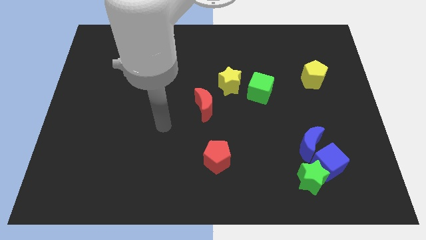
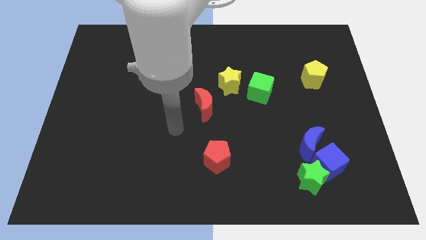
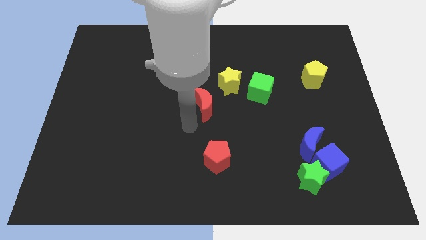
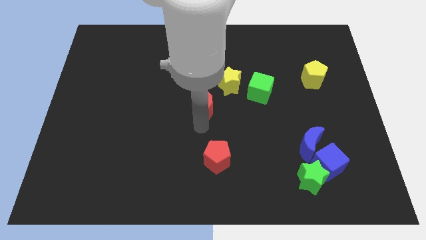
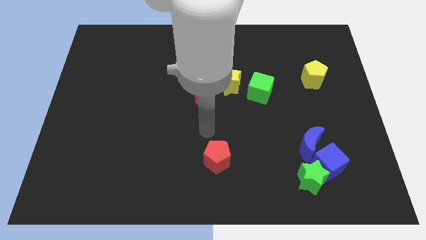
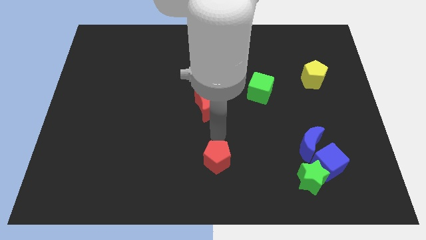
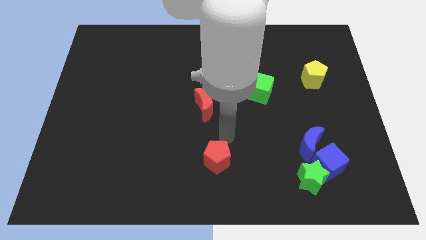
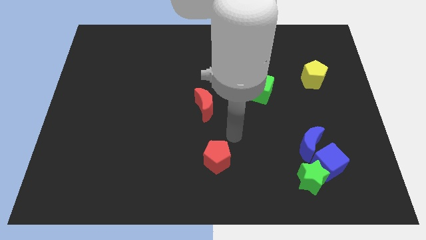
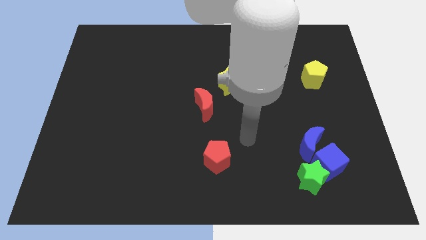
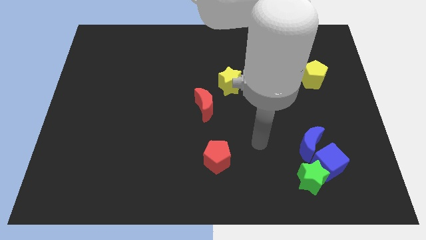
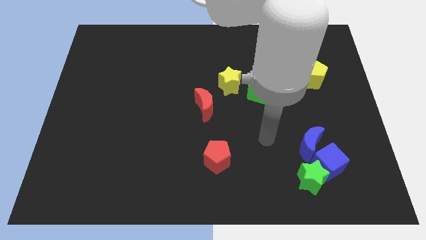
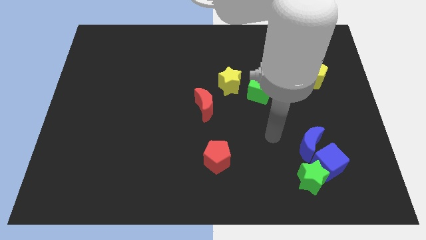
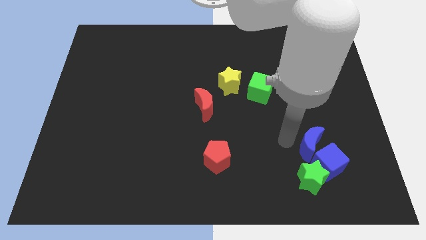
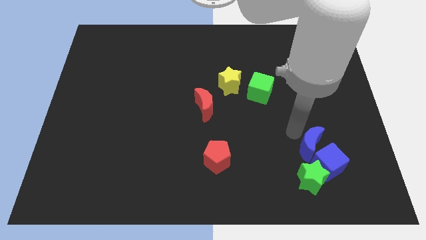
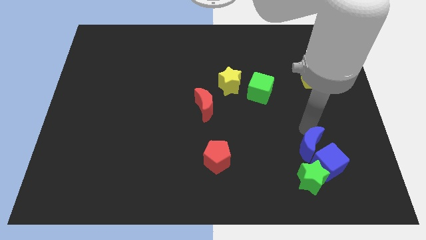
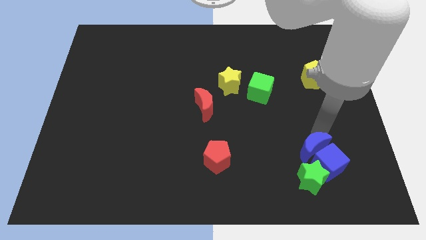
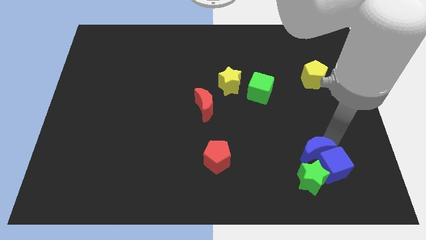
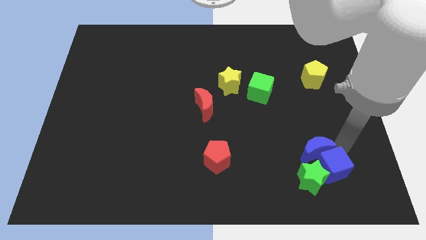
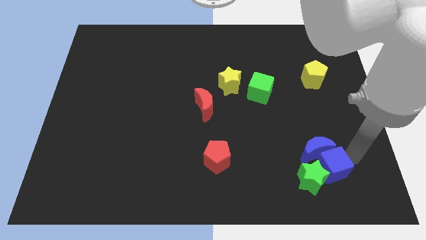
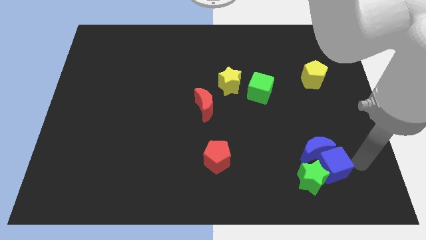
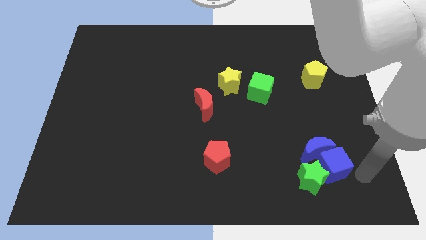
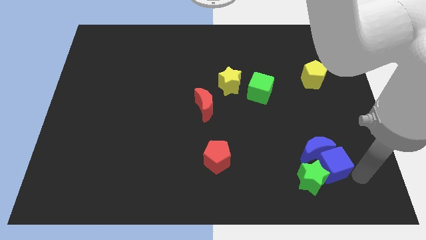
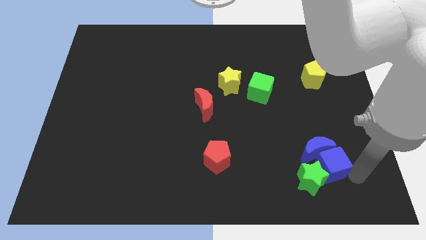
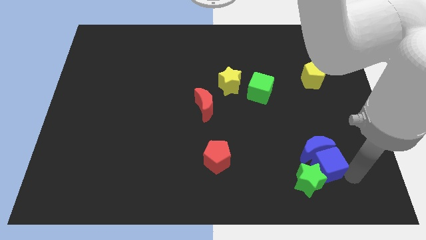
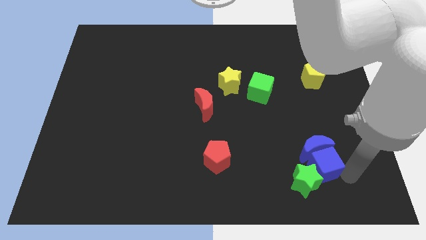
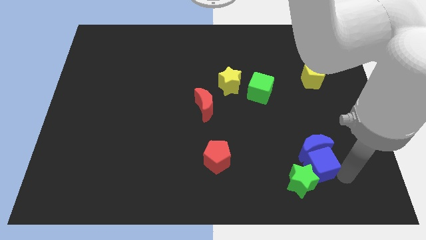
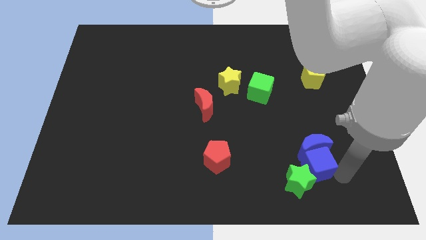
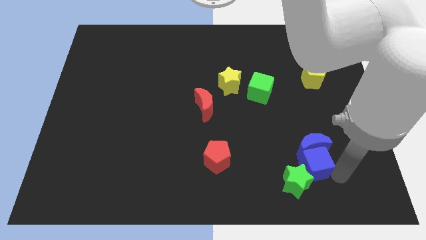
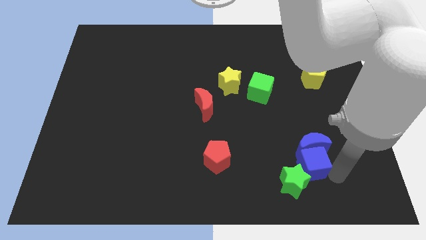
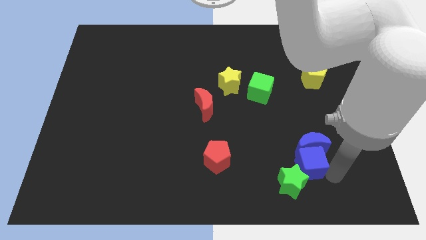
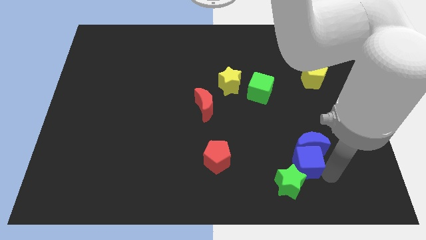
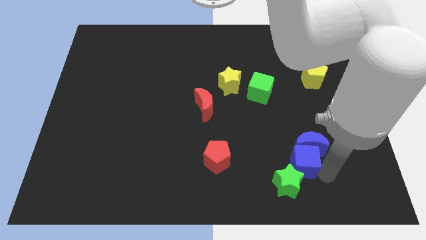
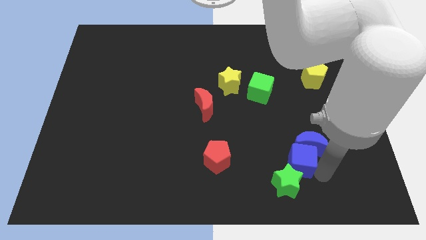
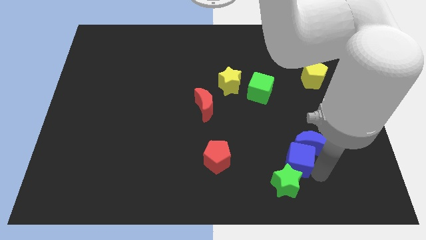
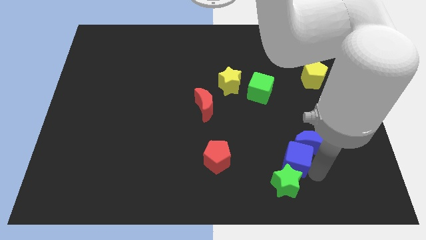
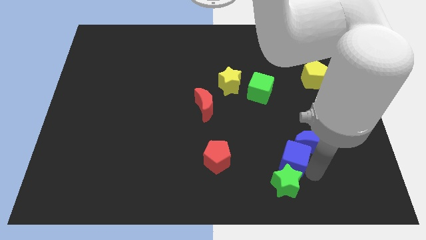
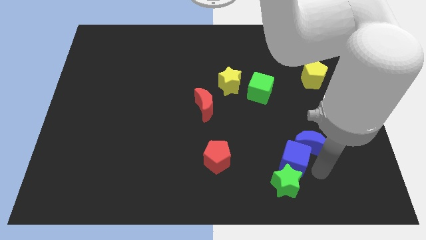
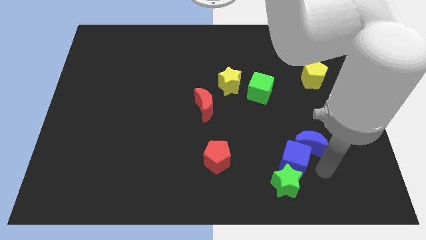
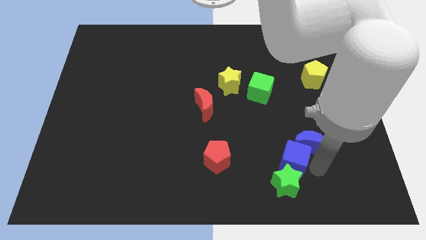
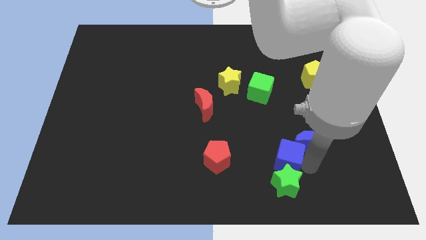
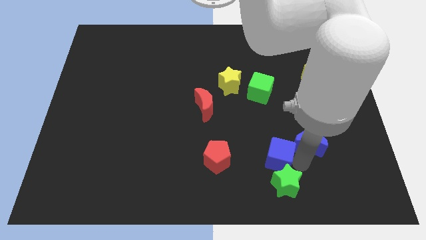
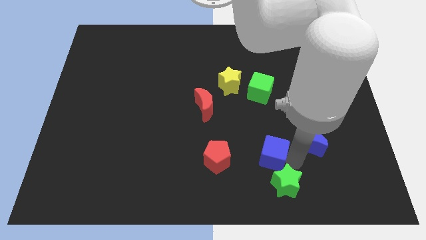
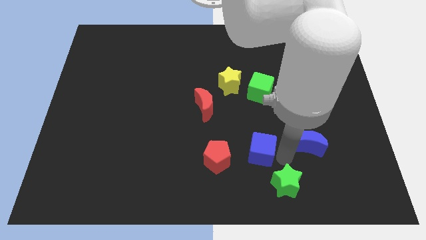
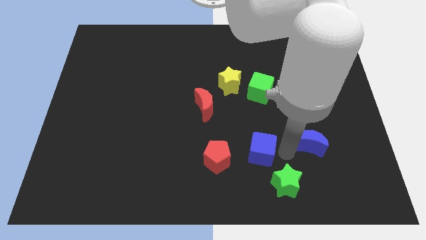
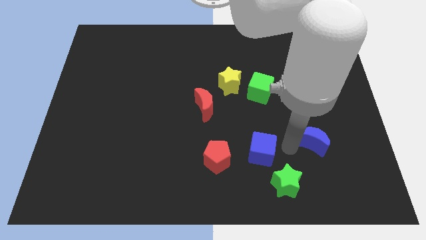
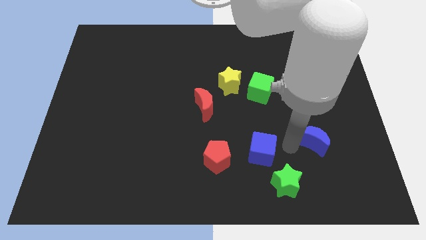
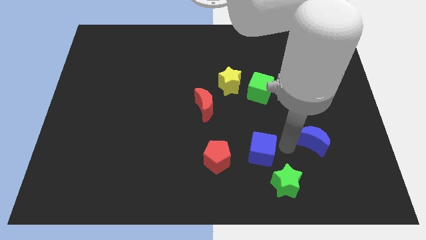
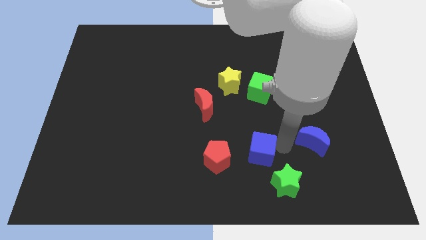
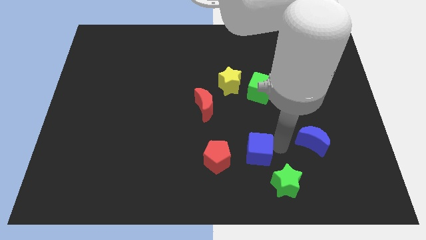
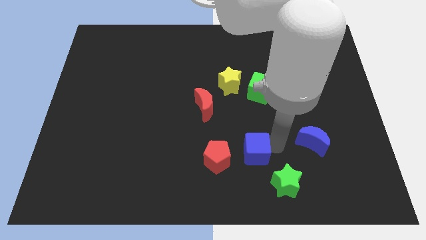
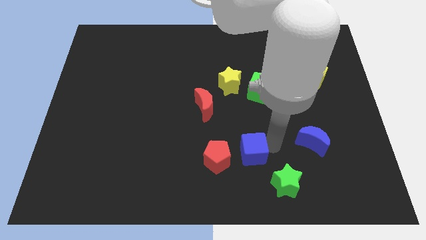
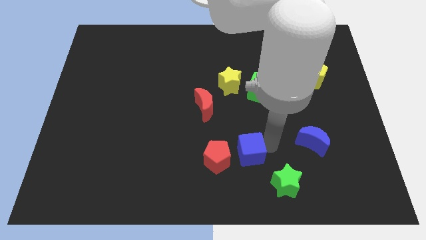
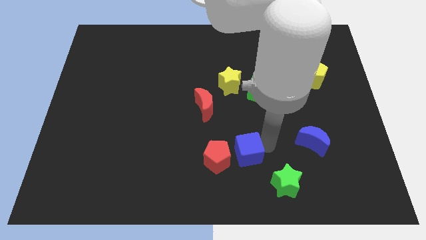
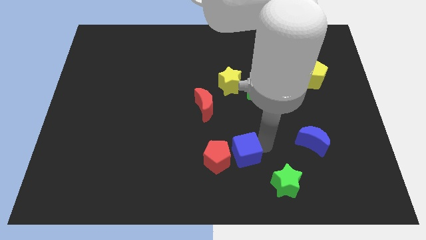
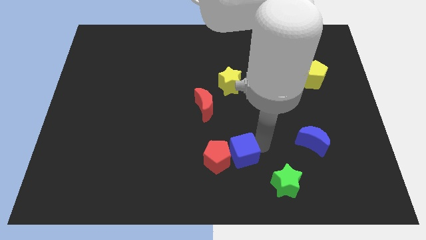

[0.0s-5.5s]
move the blue cube towards the red pentagon

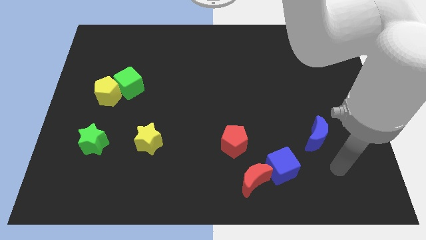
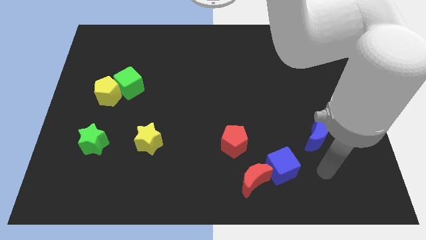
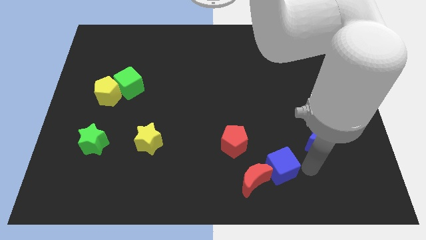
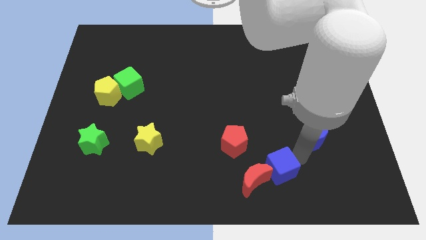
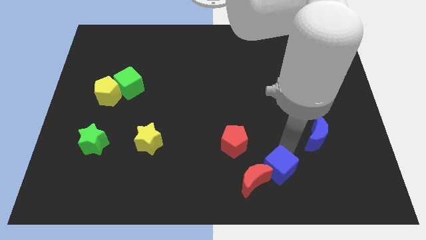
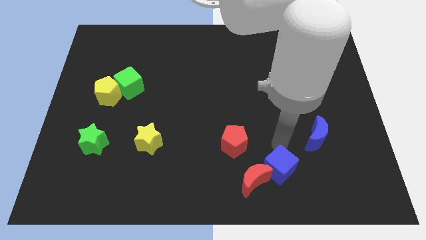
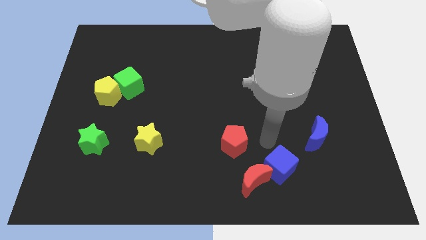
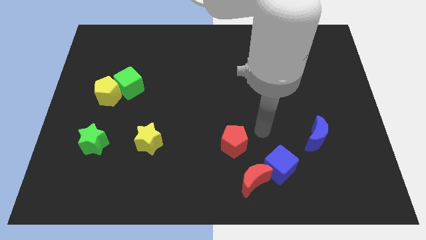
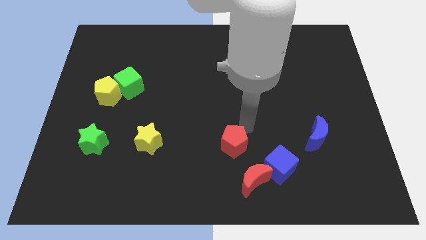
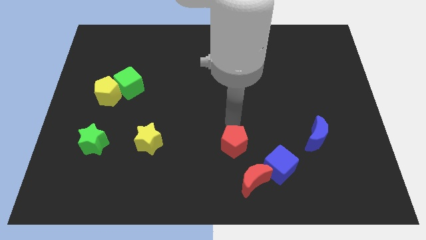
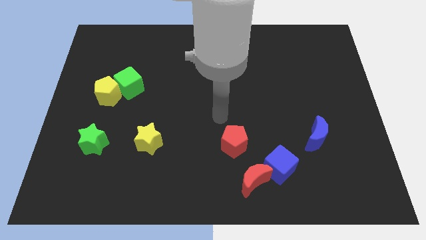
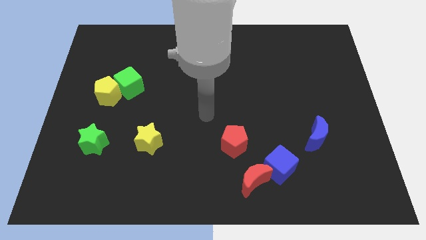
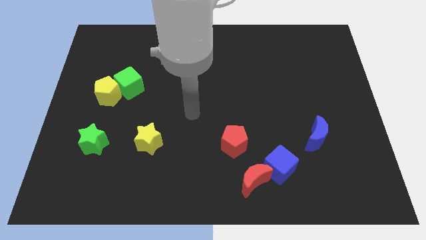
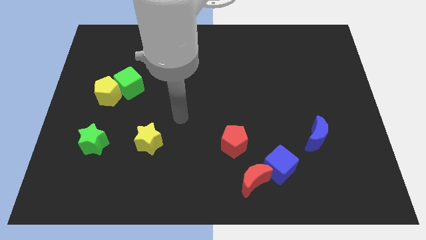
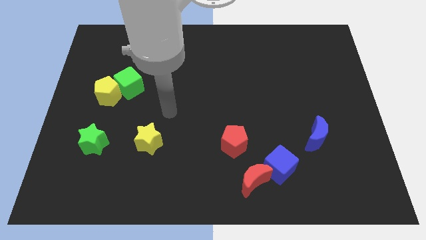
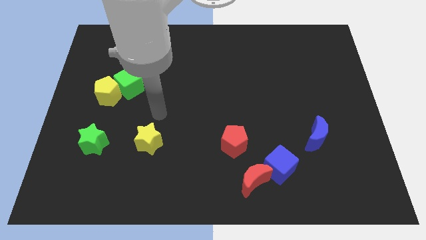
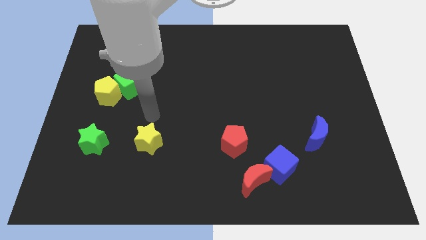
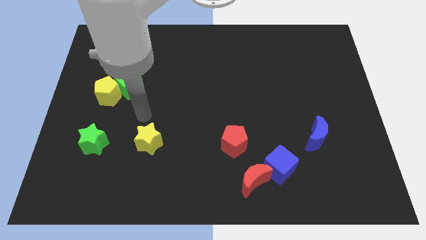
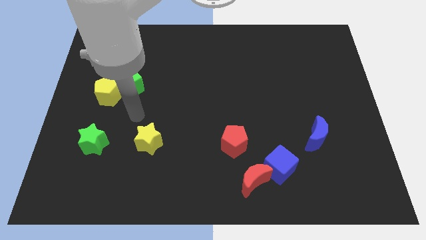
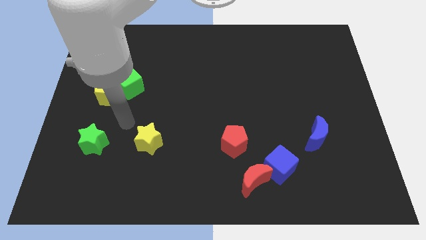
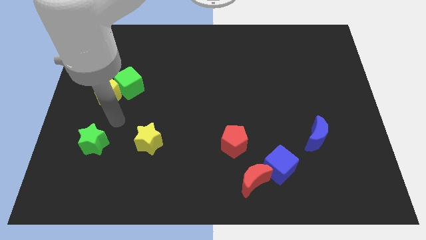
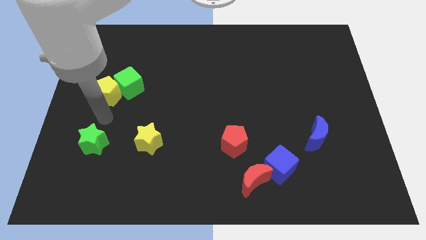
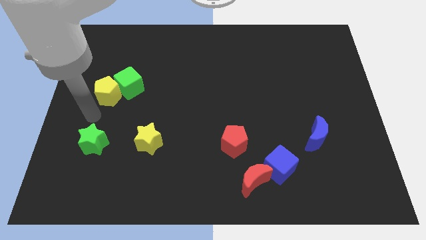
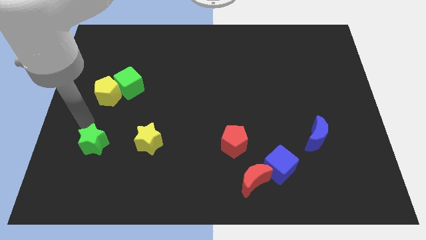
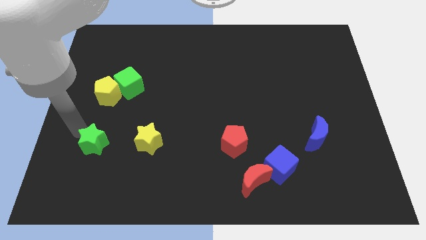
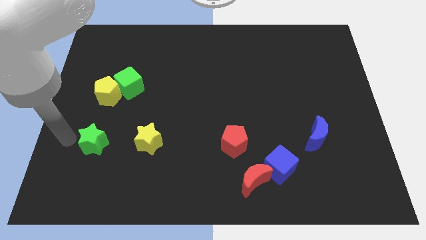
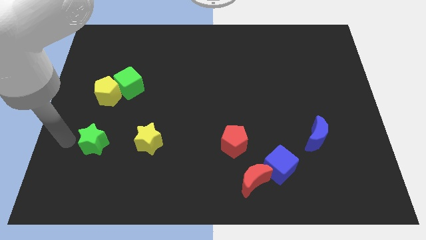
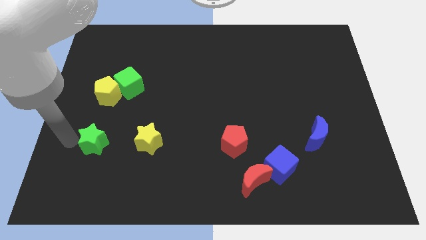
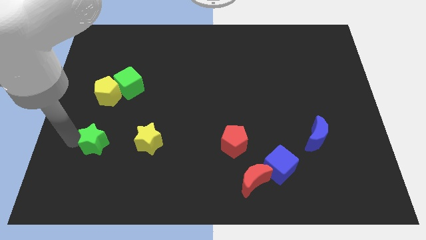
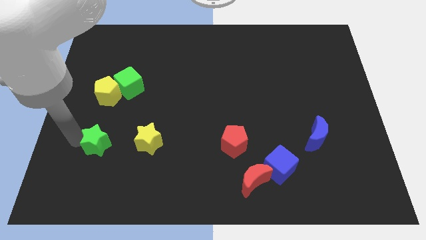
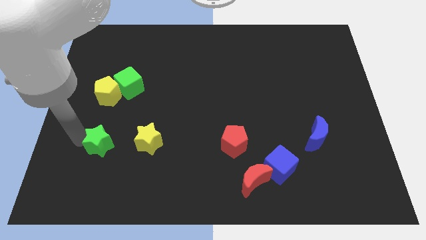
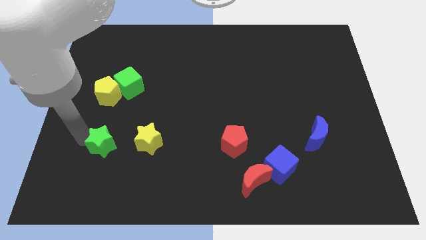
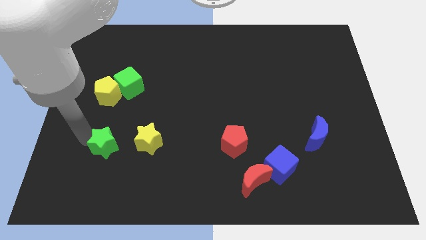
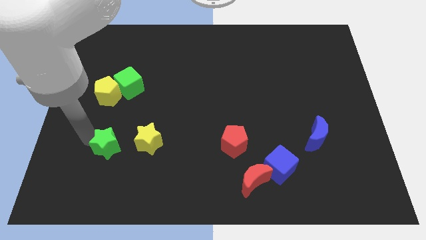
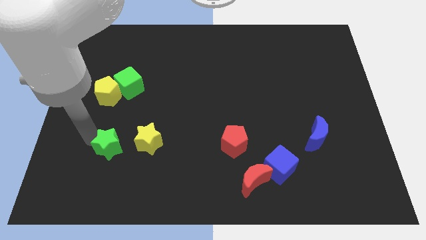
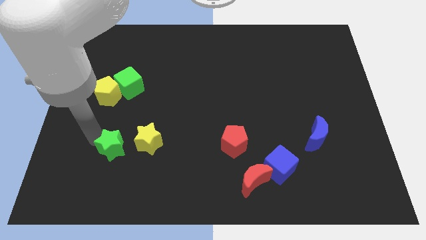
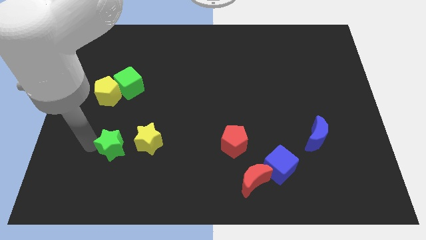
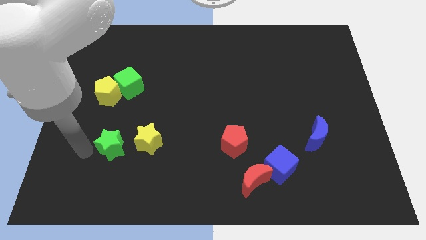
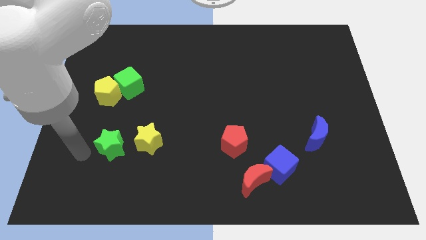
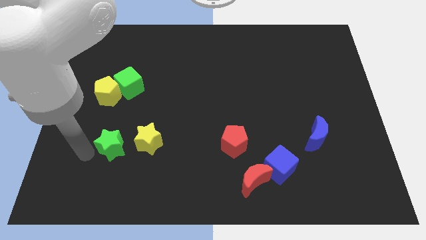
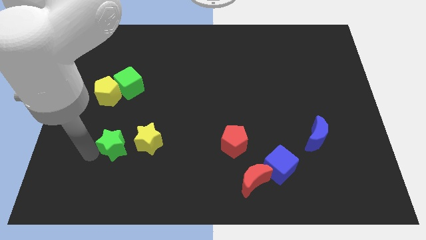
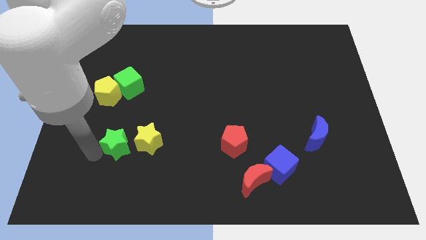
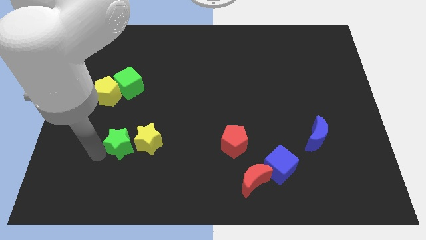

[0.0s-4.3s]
push the green star close to the yellow star
